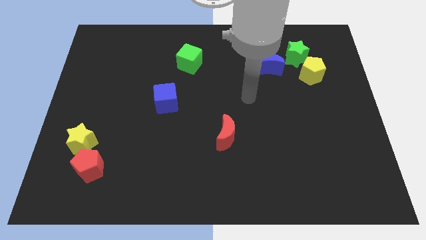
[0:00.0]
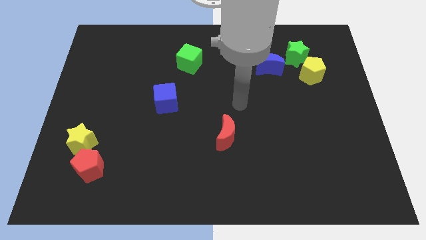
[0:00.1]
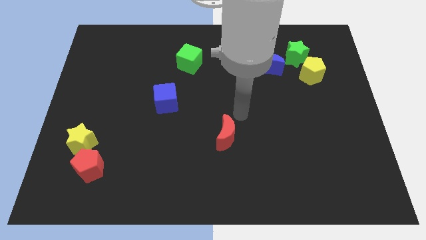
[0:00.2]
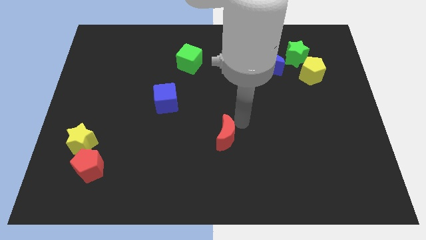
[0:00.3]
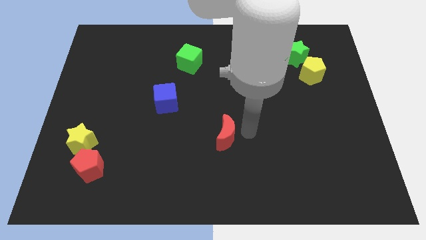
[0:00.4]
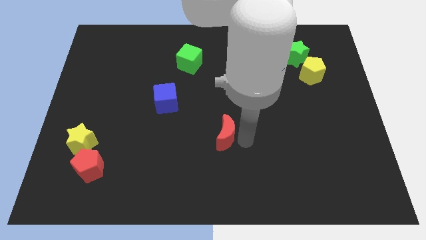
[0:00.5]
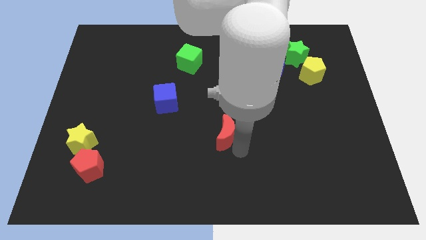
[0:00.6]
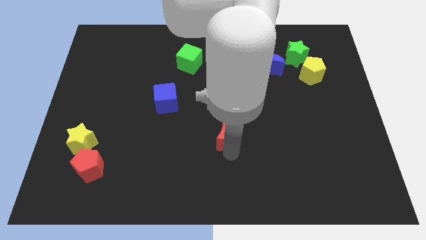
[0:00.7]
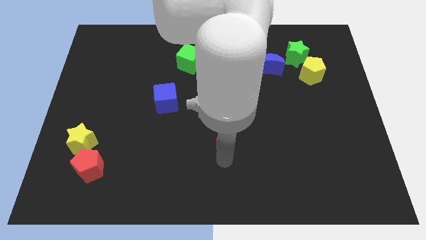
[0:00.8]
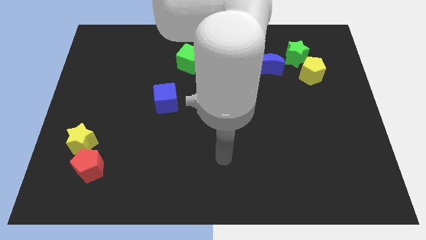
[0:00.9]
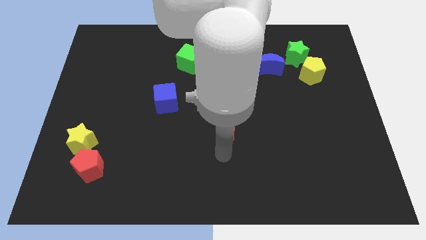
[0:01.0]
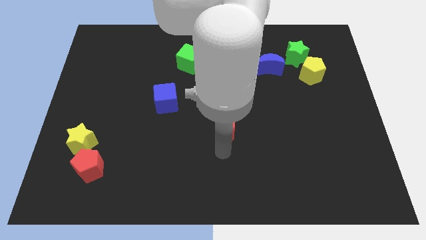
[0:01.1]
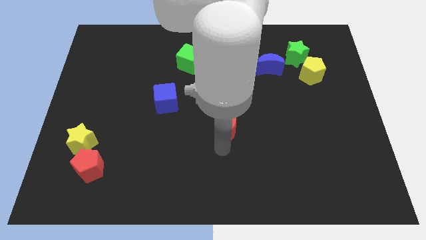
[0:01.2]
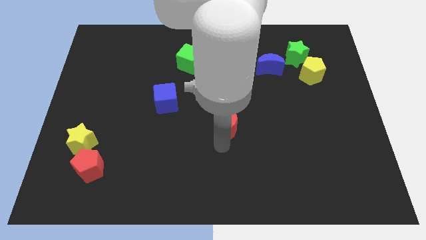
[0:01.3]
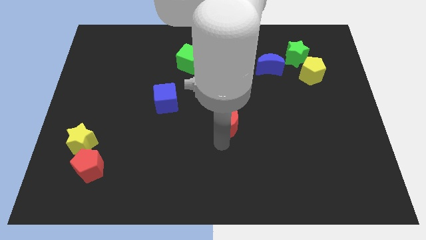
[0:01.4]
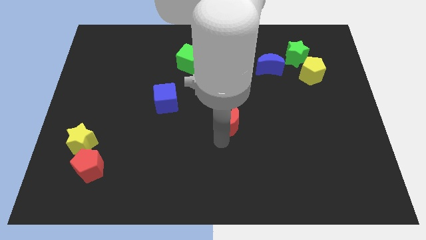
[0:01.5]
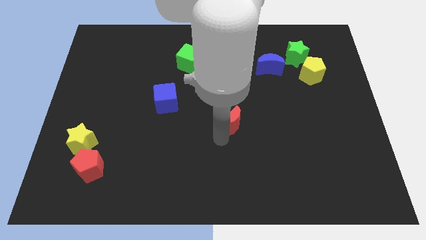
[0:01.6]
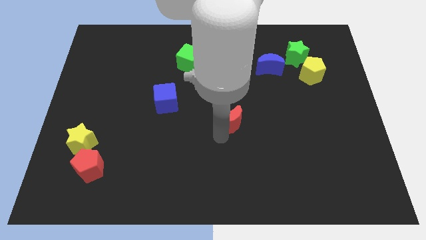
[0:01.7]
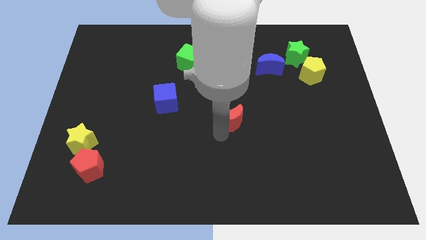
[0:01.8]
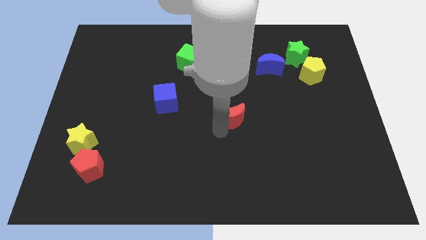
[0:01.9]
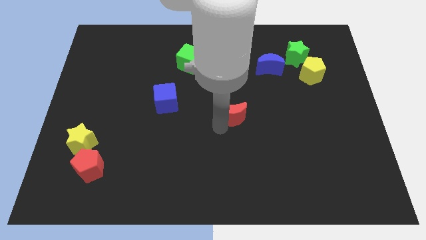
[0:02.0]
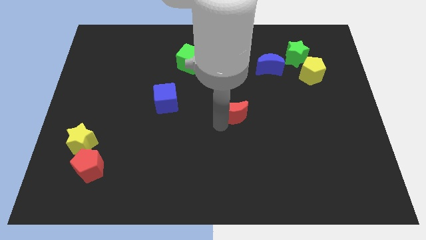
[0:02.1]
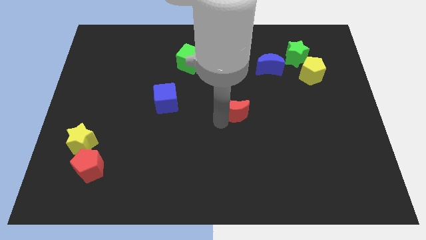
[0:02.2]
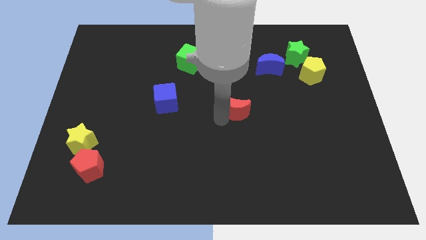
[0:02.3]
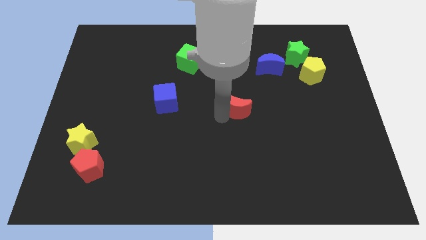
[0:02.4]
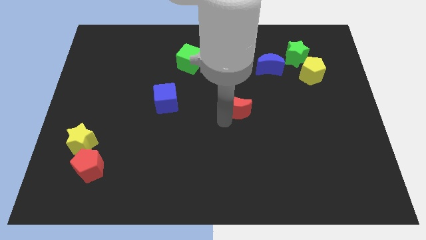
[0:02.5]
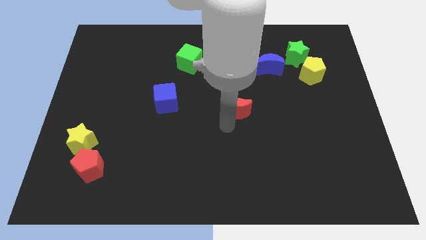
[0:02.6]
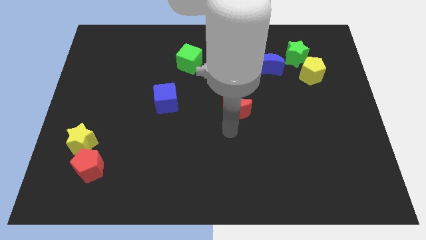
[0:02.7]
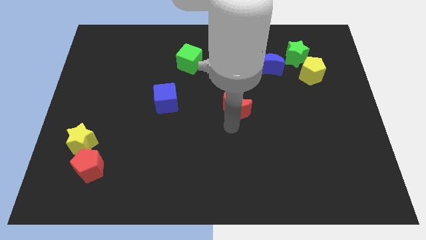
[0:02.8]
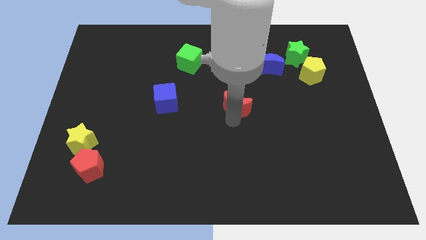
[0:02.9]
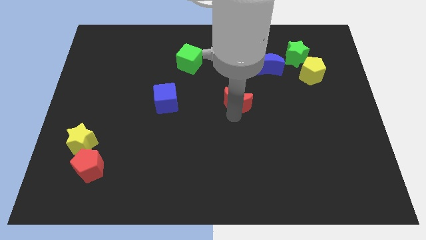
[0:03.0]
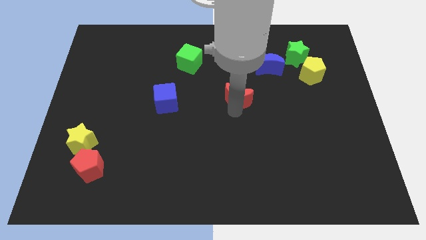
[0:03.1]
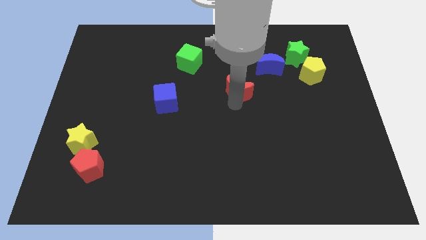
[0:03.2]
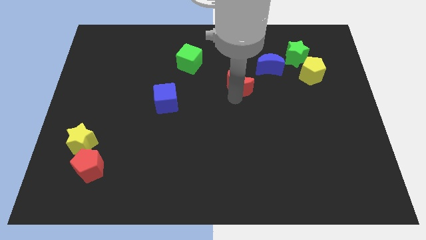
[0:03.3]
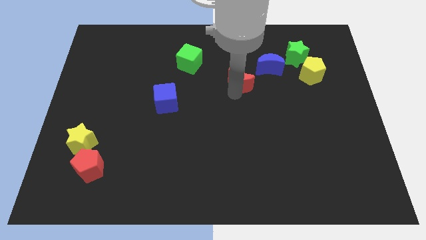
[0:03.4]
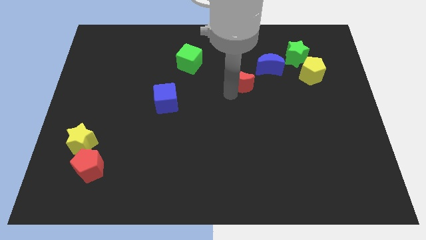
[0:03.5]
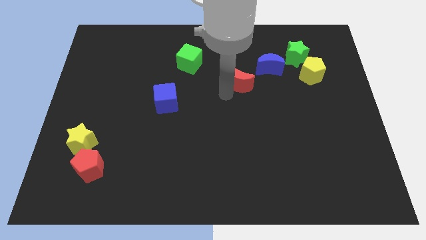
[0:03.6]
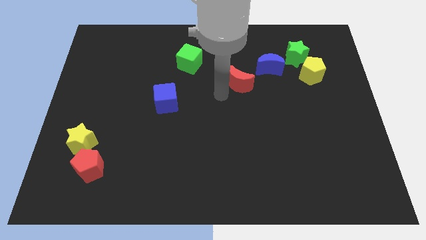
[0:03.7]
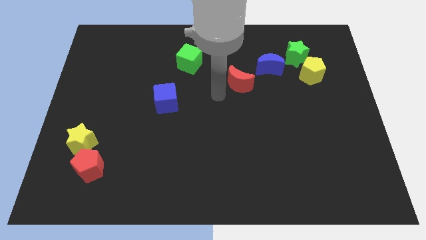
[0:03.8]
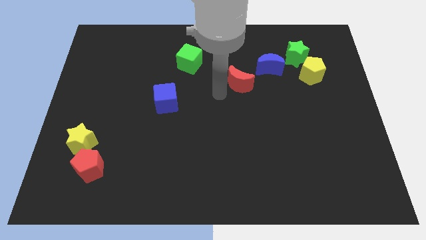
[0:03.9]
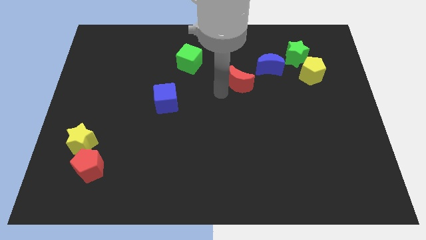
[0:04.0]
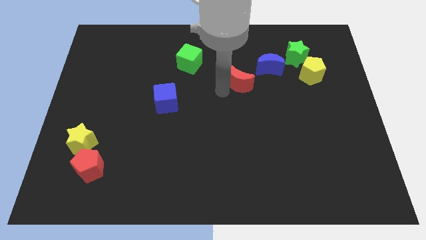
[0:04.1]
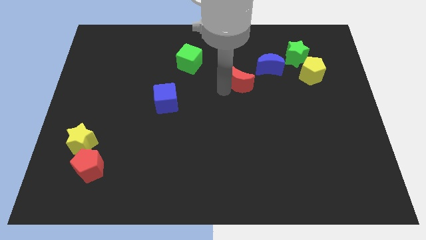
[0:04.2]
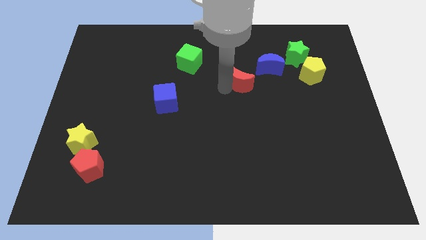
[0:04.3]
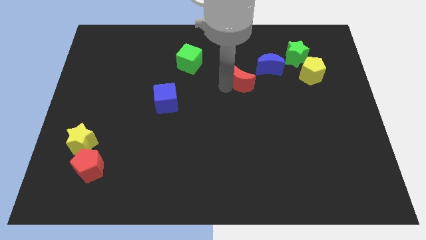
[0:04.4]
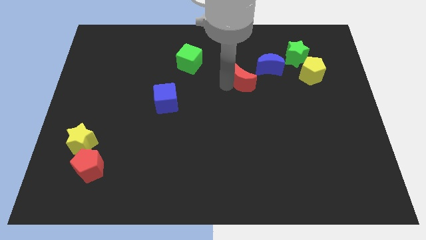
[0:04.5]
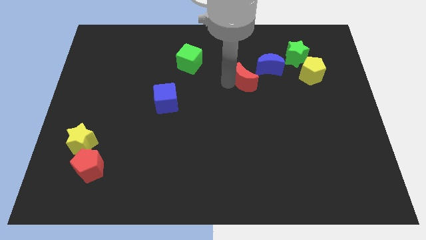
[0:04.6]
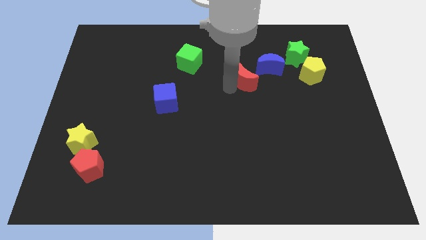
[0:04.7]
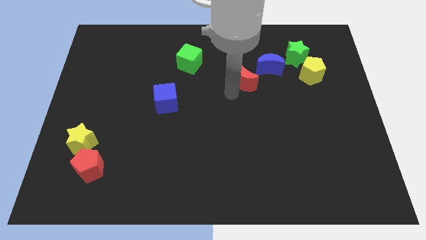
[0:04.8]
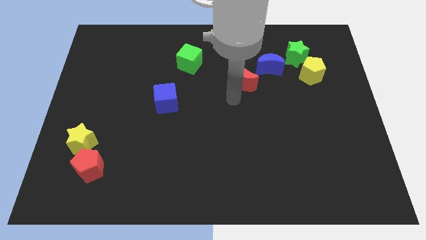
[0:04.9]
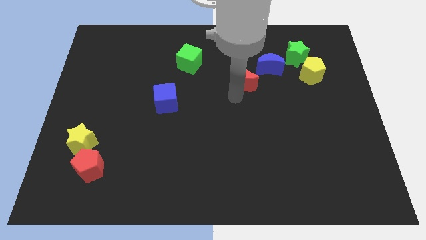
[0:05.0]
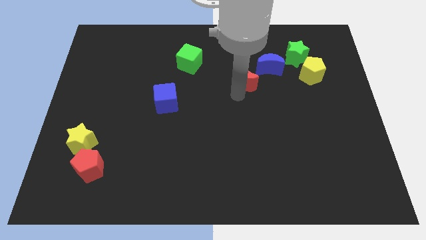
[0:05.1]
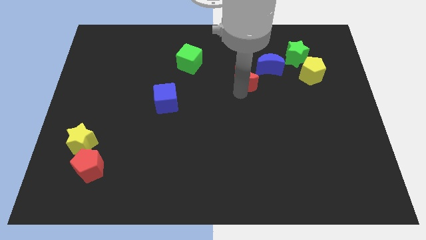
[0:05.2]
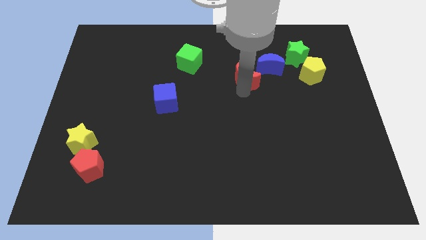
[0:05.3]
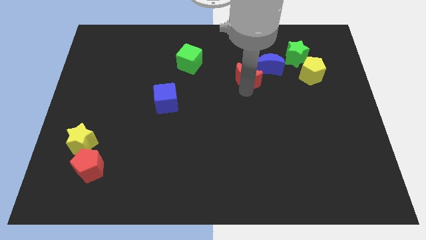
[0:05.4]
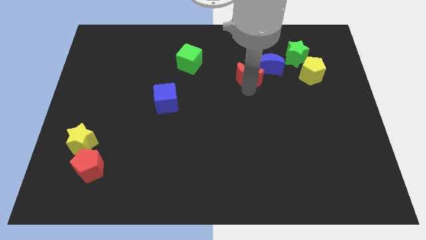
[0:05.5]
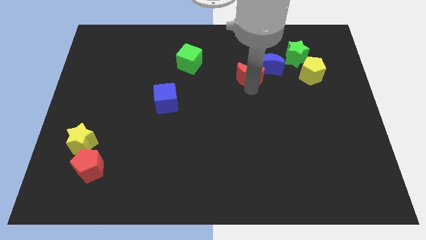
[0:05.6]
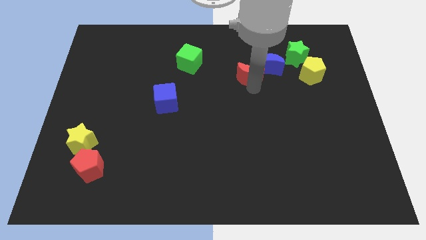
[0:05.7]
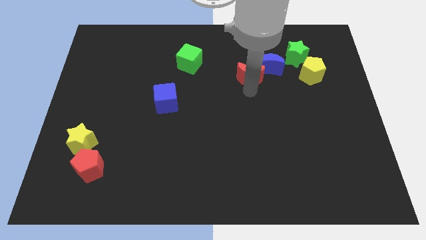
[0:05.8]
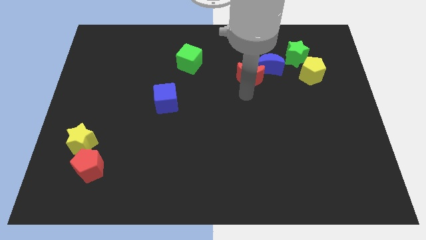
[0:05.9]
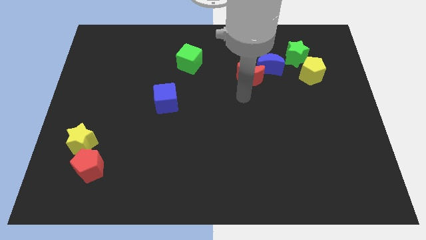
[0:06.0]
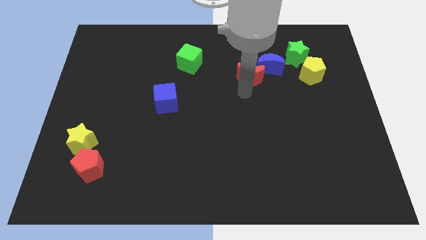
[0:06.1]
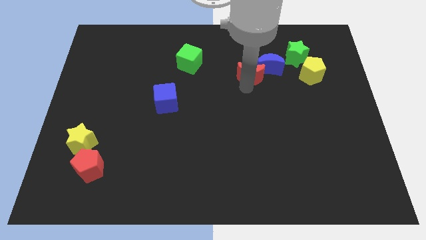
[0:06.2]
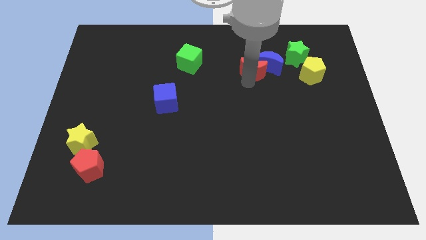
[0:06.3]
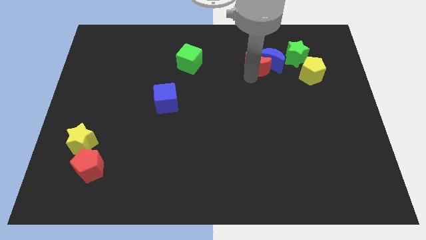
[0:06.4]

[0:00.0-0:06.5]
put the red moon to the left side of the green star

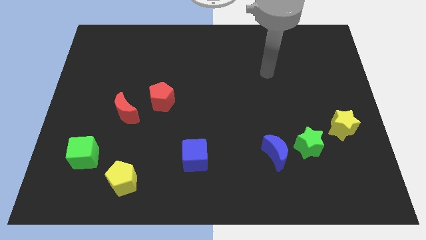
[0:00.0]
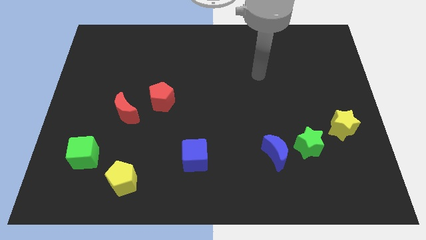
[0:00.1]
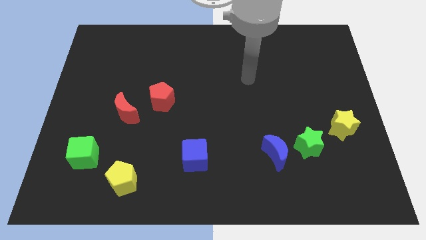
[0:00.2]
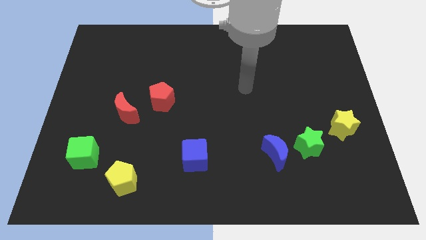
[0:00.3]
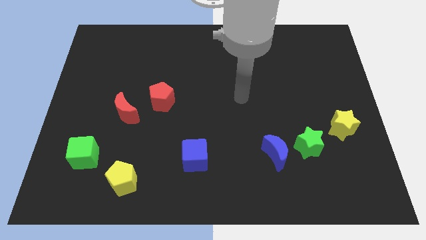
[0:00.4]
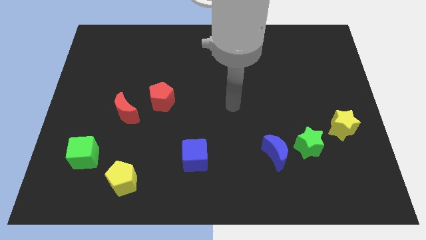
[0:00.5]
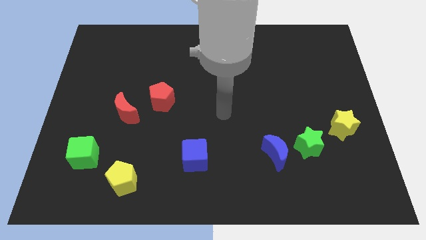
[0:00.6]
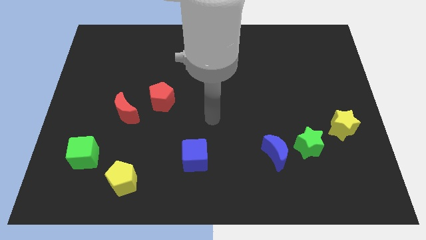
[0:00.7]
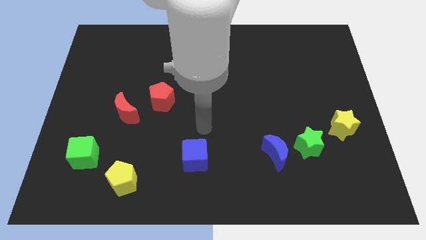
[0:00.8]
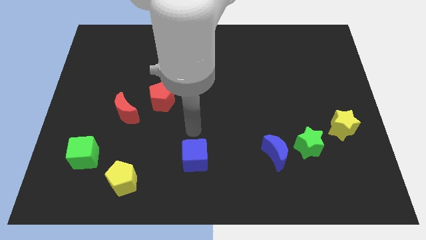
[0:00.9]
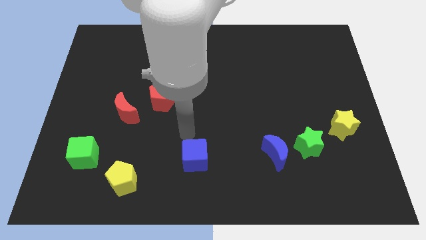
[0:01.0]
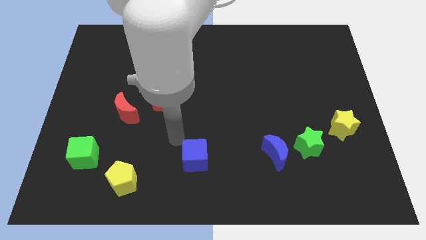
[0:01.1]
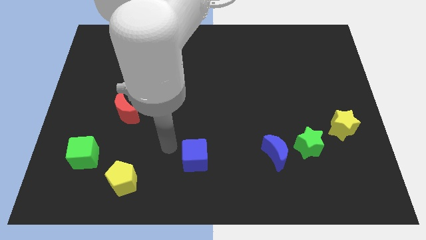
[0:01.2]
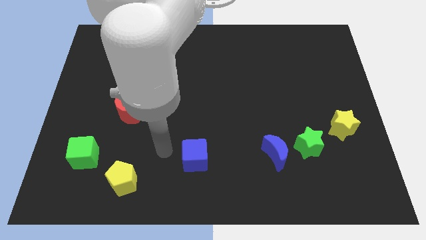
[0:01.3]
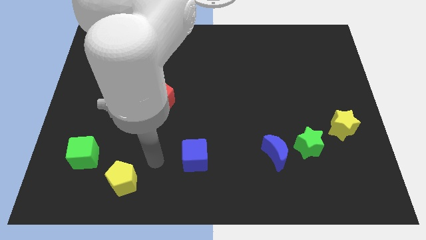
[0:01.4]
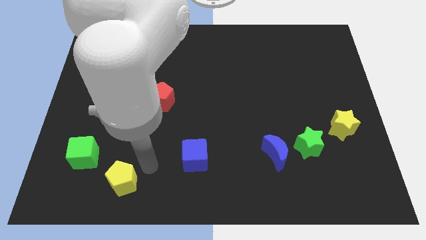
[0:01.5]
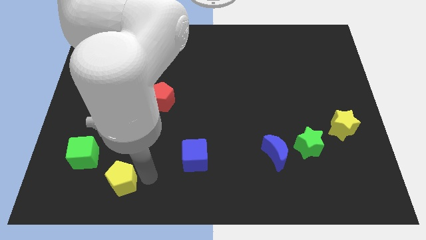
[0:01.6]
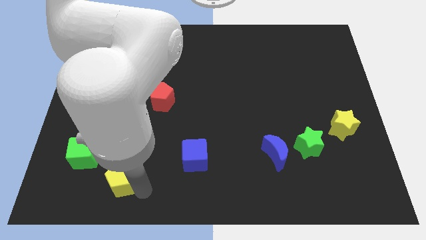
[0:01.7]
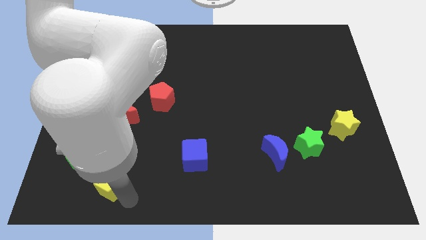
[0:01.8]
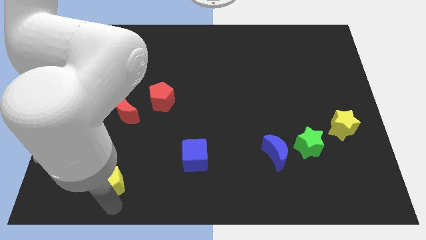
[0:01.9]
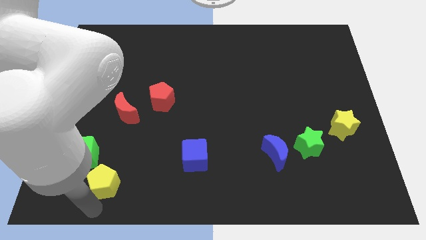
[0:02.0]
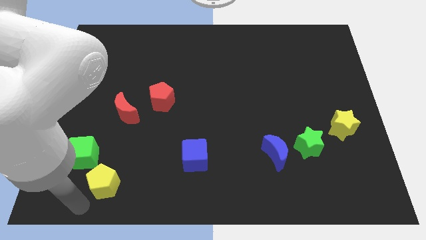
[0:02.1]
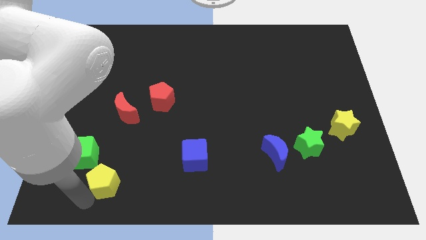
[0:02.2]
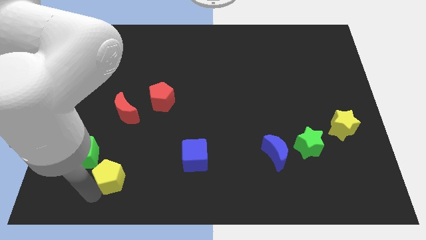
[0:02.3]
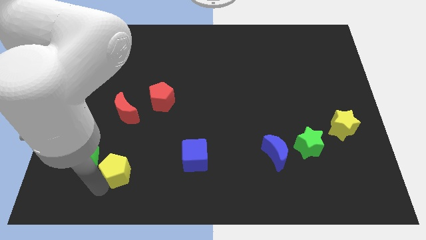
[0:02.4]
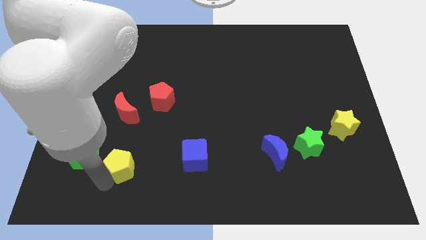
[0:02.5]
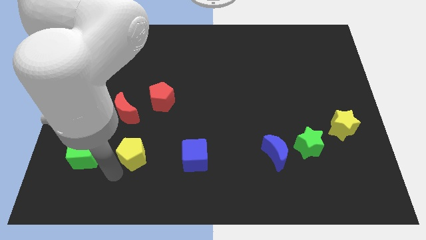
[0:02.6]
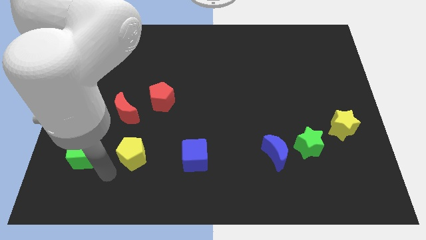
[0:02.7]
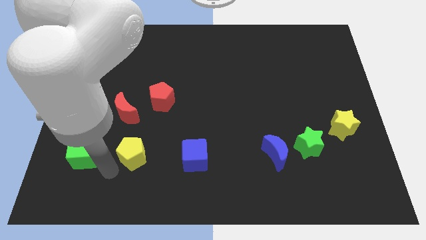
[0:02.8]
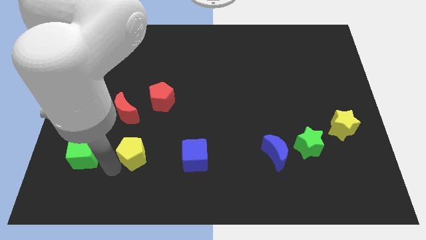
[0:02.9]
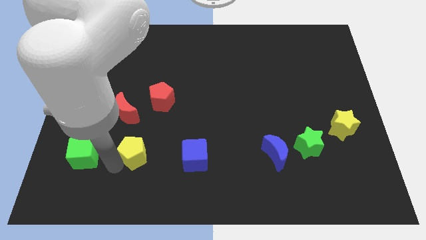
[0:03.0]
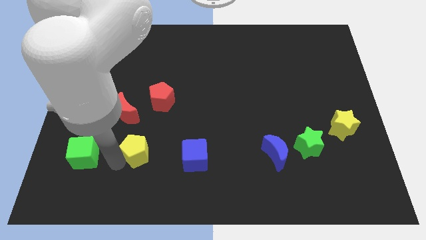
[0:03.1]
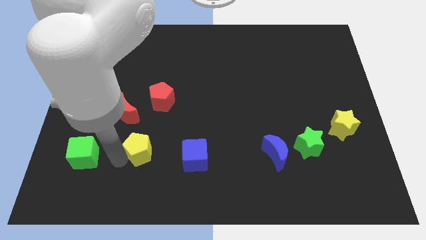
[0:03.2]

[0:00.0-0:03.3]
slide the yellow pentagon to the bottom side of the red pentagon
